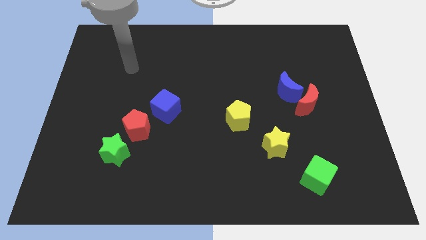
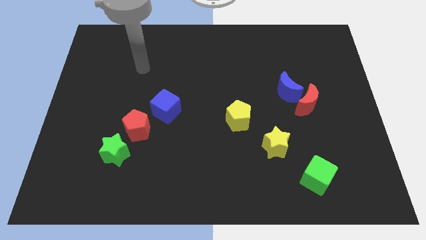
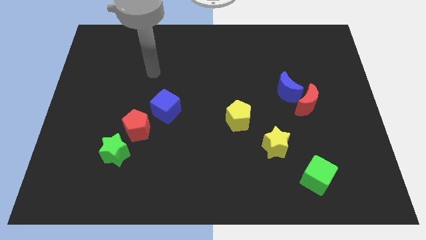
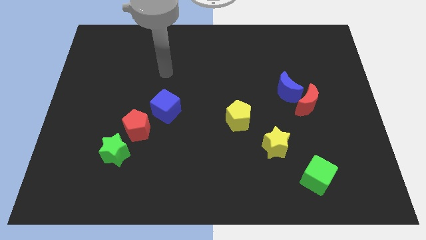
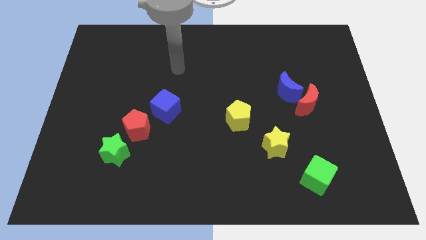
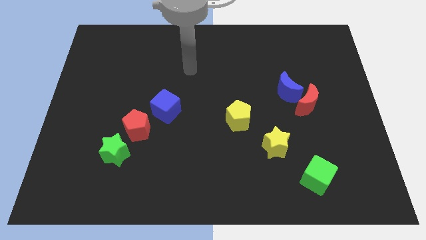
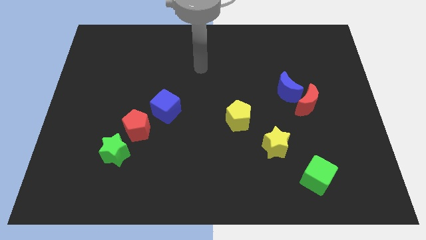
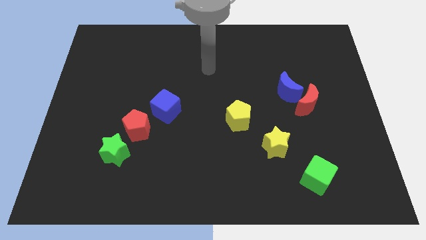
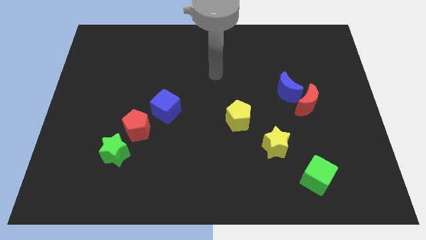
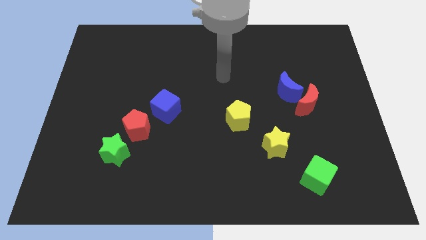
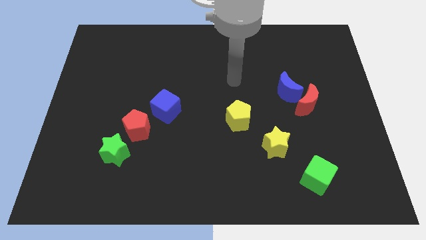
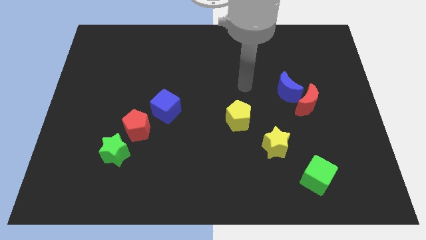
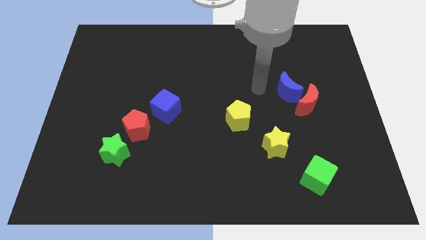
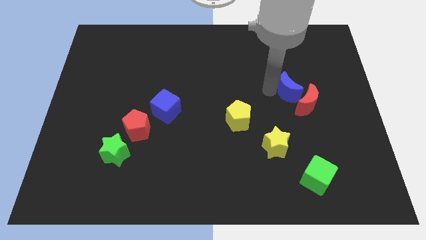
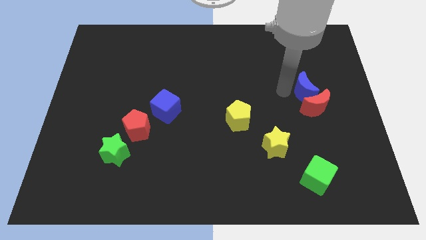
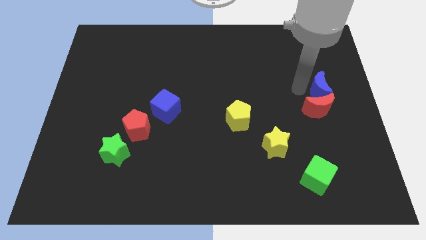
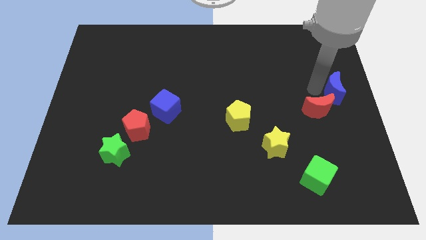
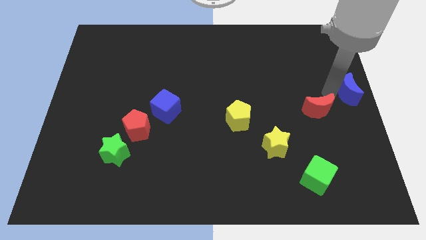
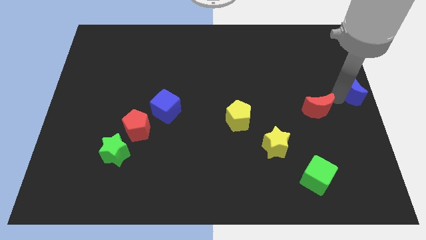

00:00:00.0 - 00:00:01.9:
separate the red moon from the blue moon

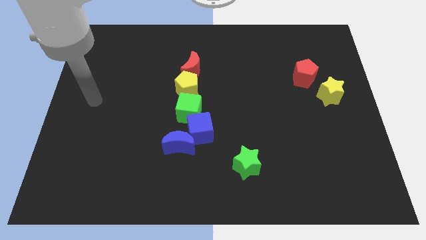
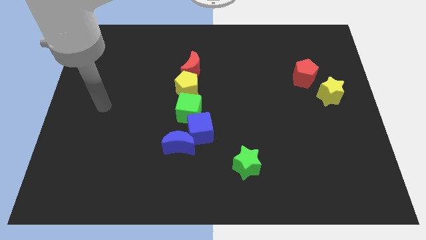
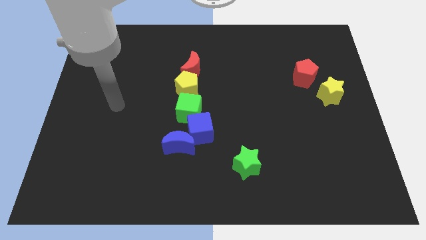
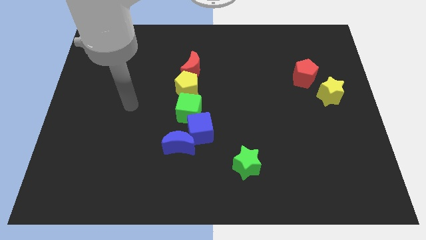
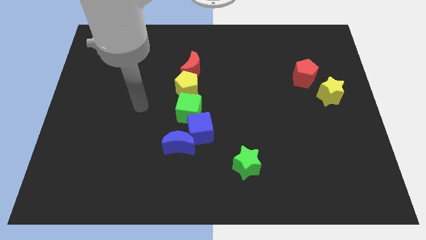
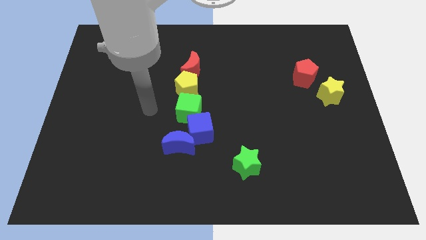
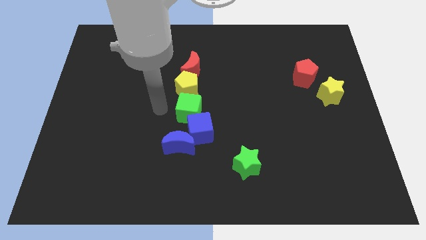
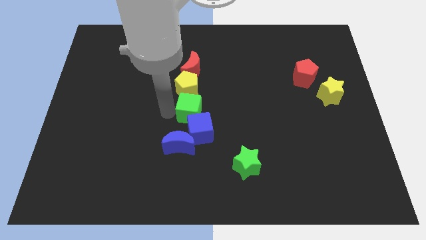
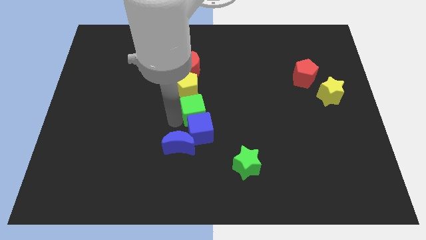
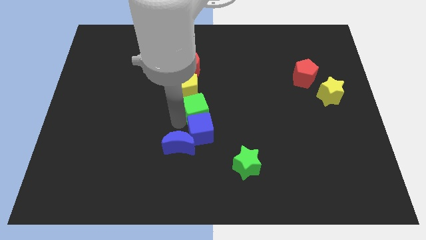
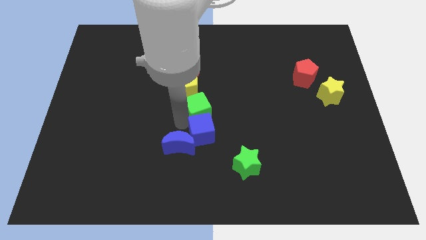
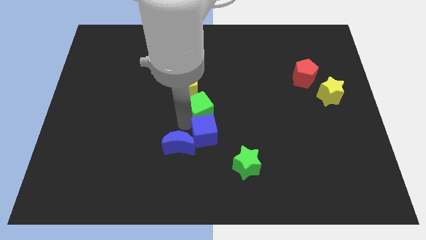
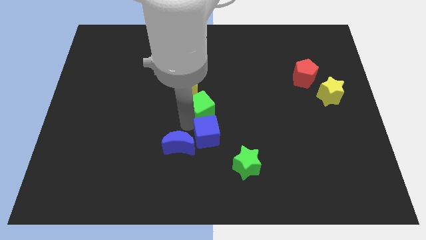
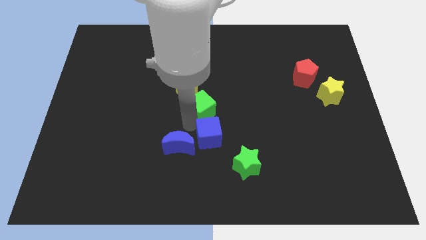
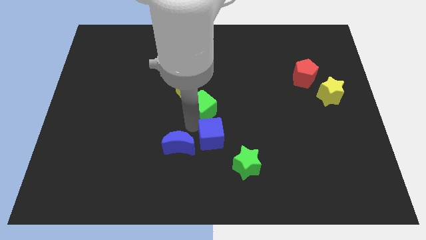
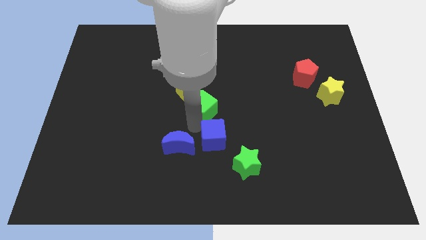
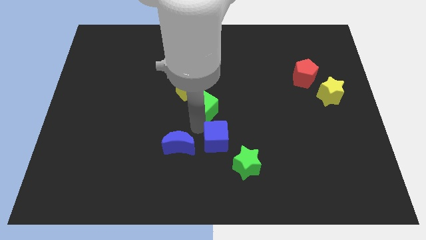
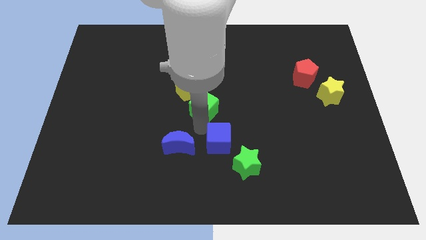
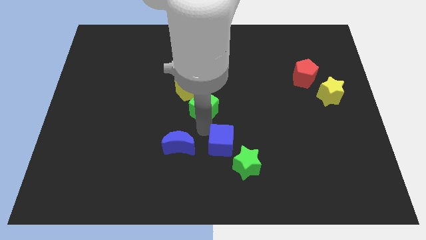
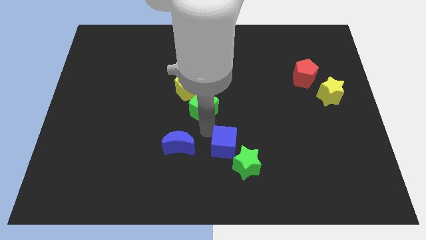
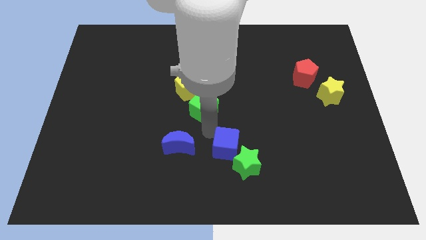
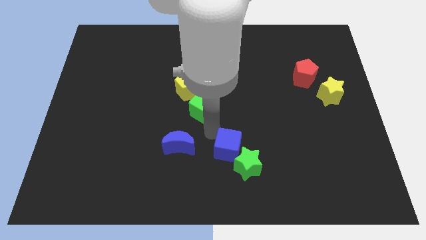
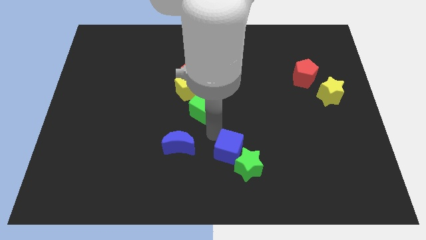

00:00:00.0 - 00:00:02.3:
pull the blue cube apart from the blue moon and green cube

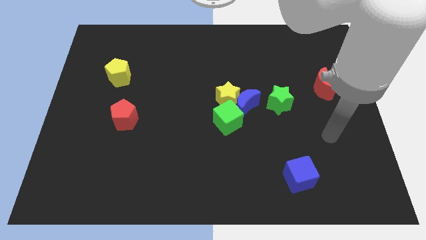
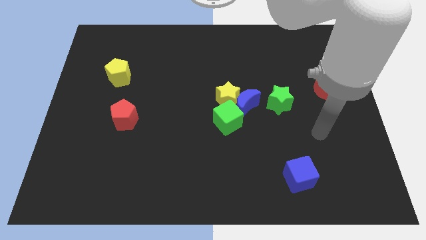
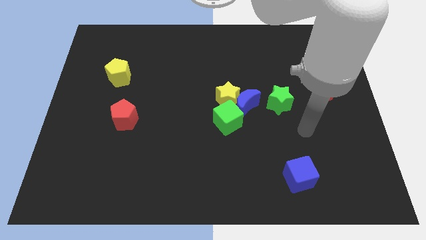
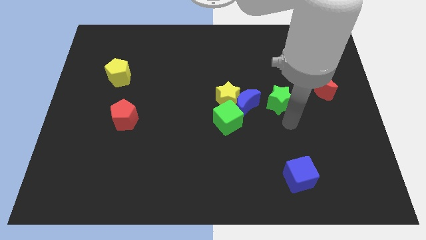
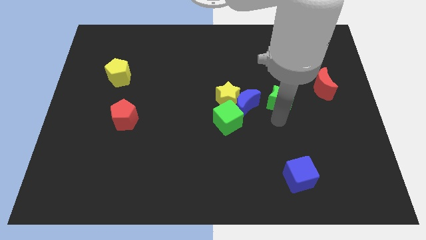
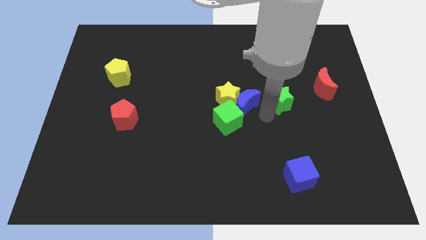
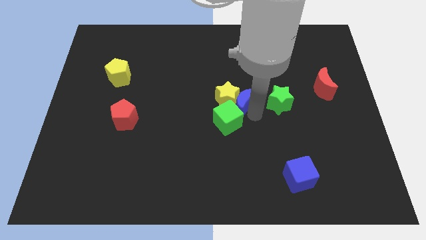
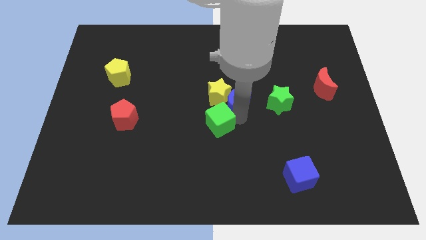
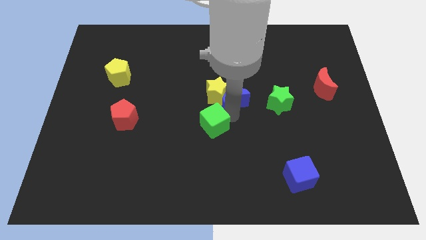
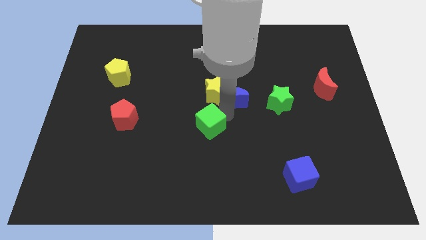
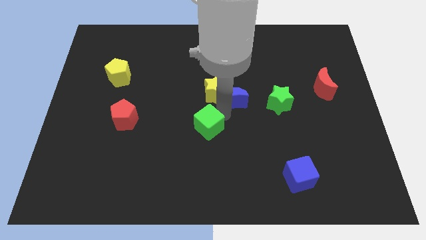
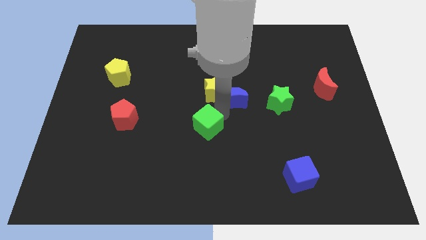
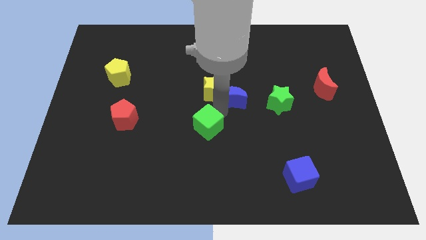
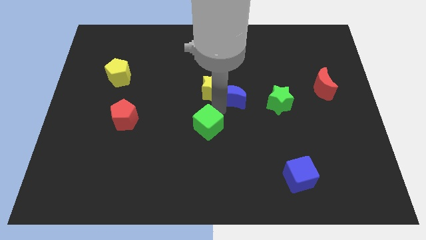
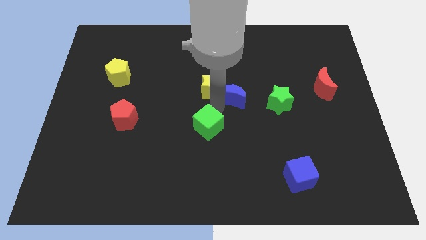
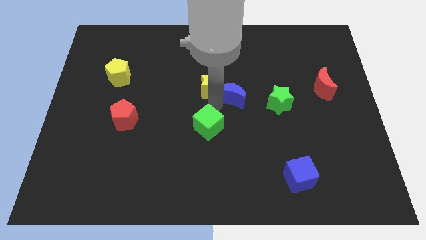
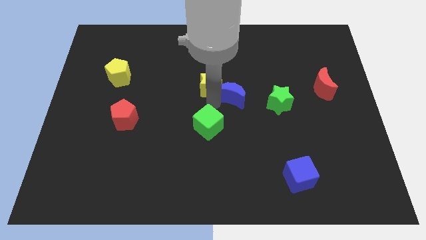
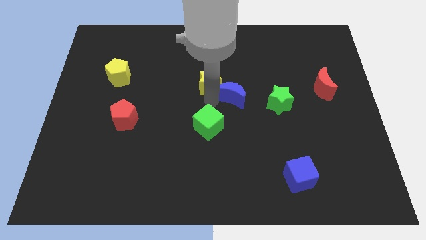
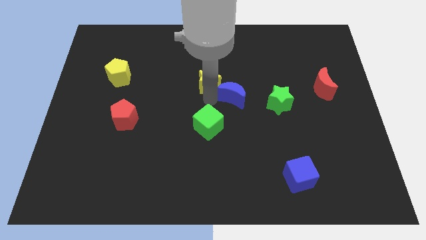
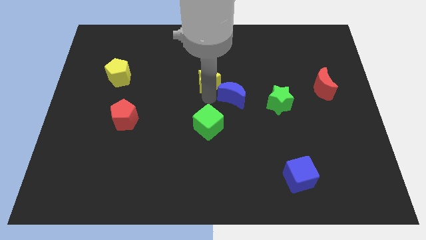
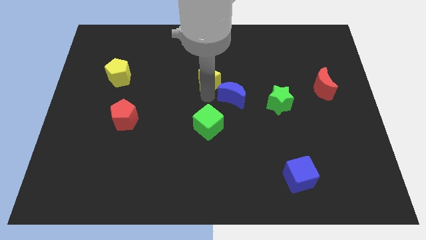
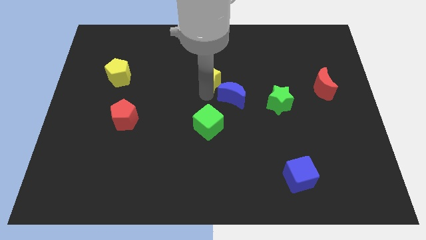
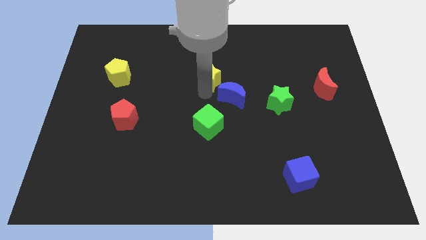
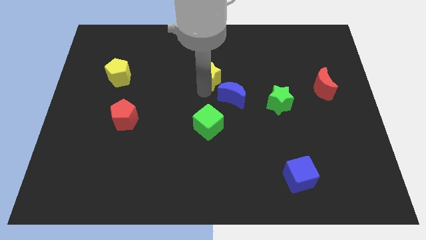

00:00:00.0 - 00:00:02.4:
pull the yellow star apart from the blue moon and green cube

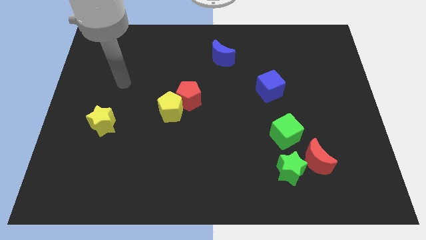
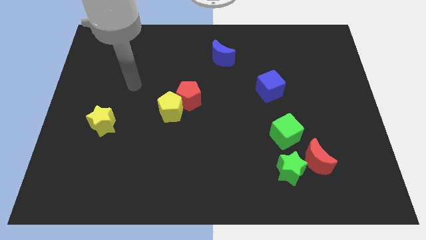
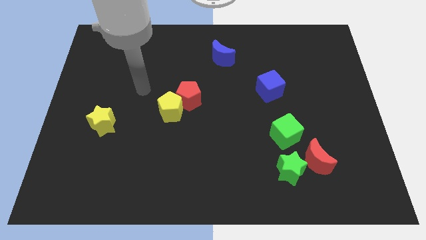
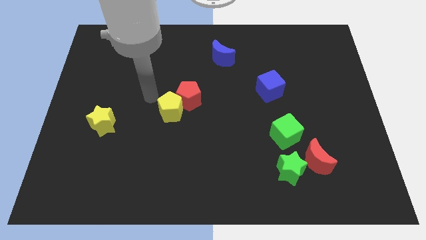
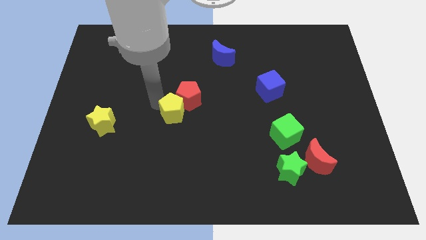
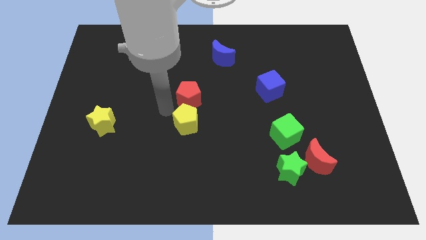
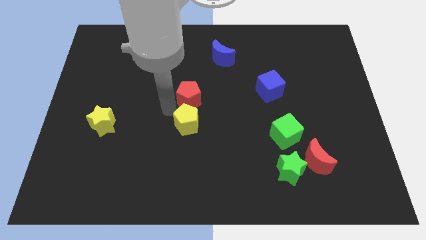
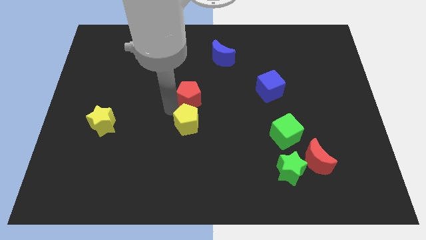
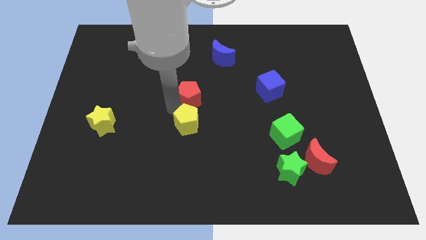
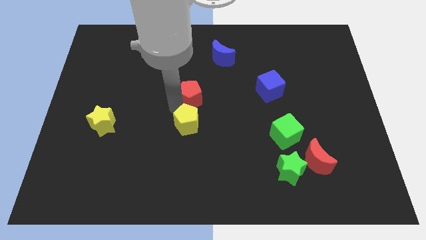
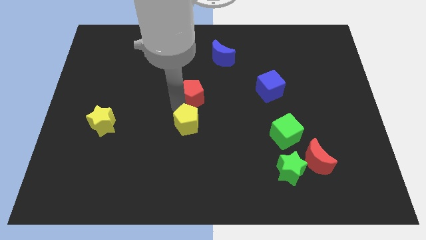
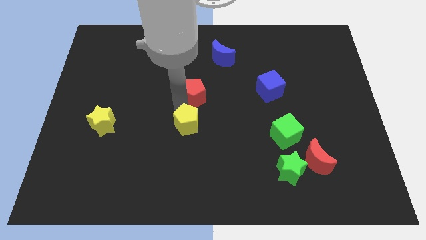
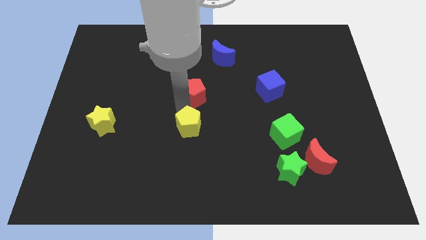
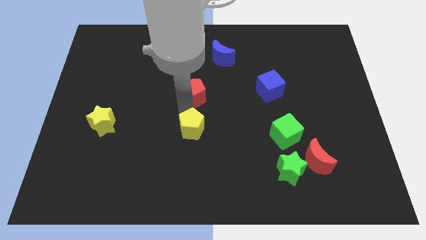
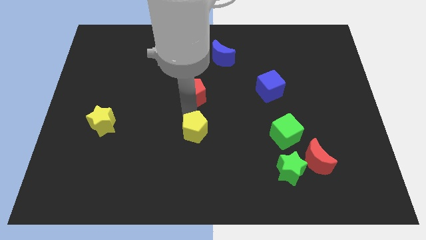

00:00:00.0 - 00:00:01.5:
separate the red pentagon from the yellow pentagon

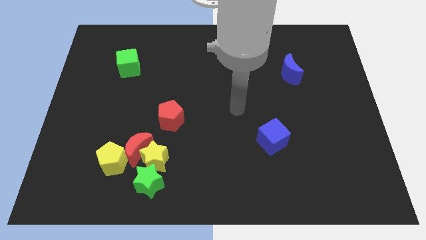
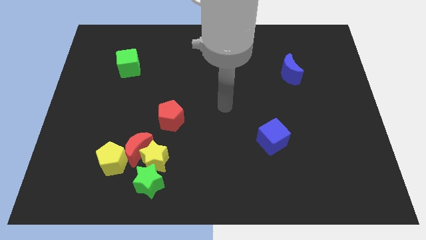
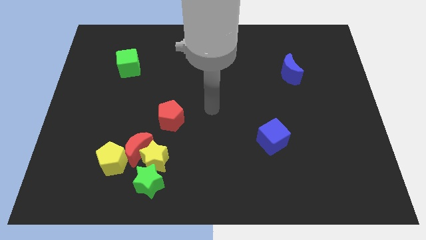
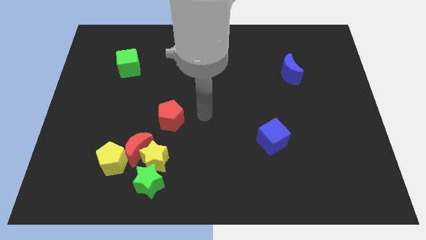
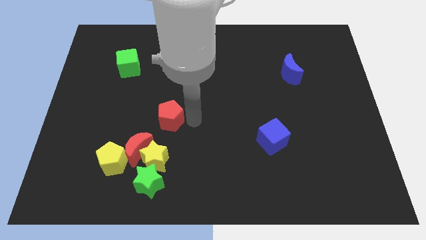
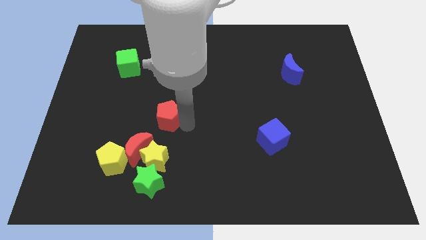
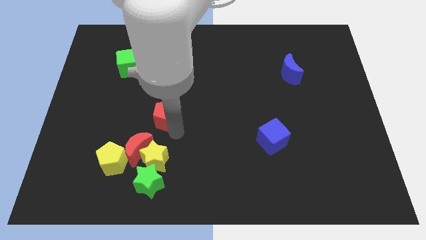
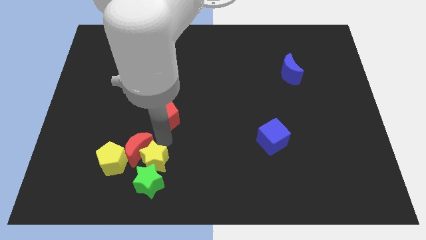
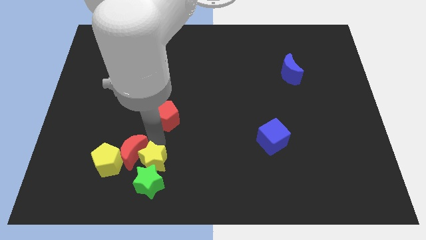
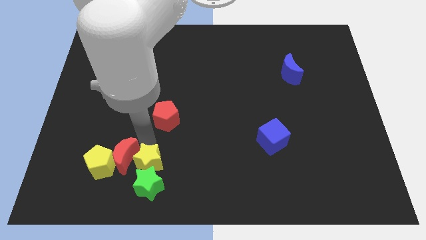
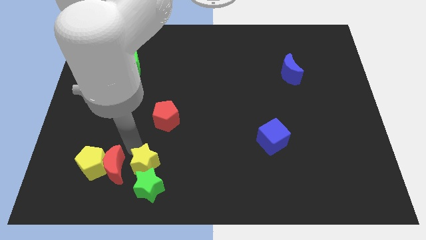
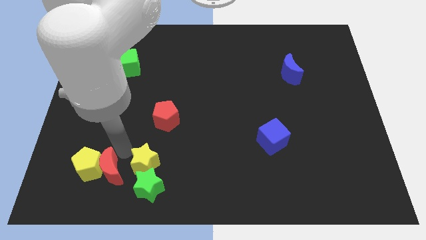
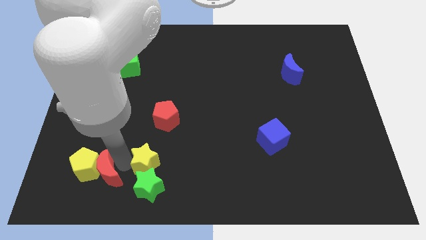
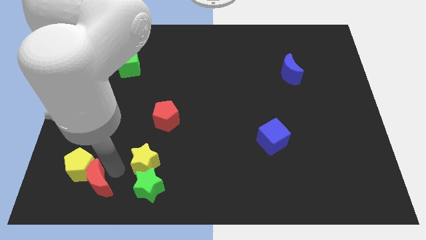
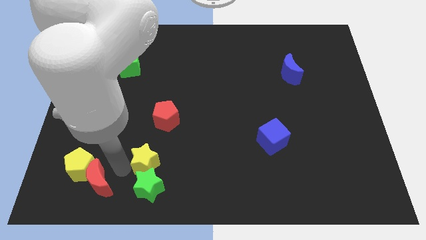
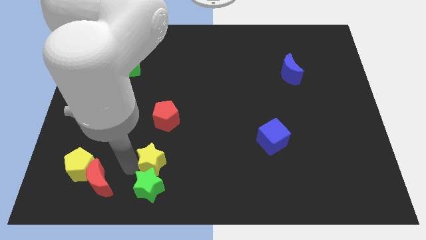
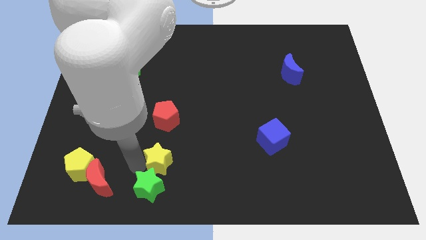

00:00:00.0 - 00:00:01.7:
move the yellow star away from the group of blocks
